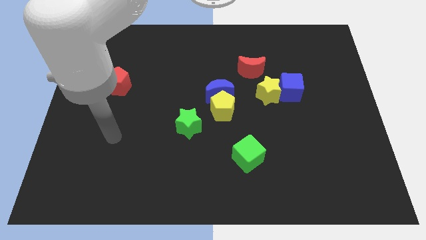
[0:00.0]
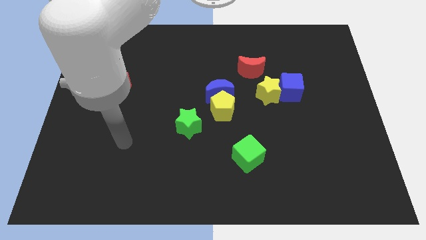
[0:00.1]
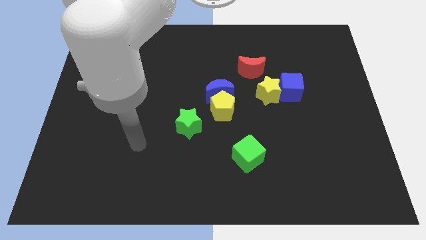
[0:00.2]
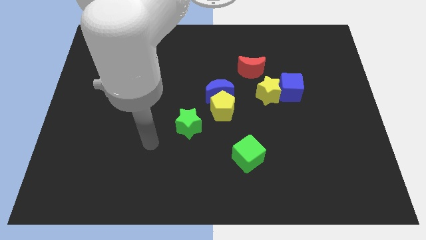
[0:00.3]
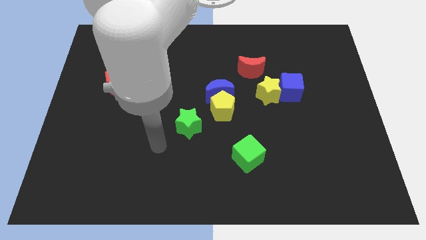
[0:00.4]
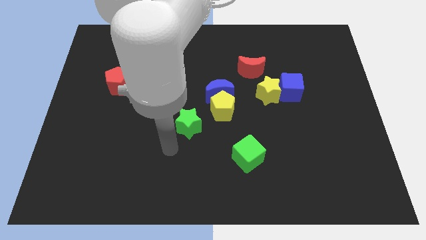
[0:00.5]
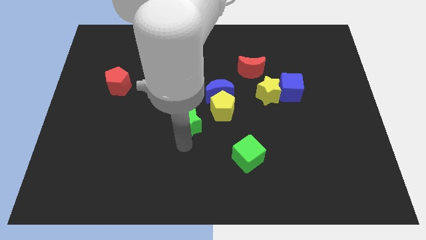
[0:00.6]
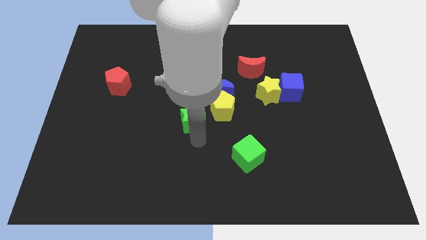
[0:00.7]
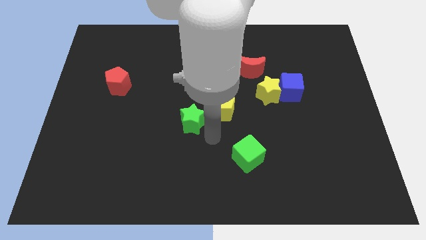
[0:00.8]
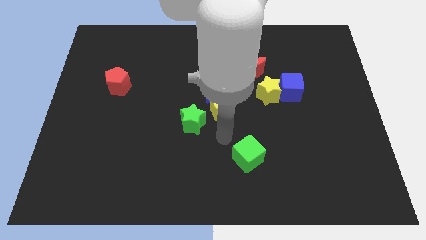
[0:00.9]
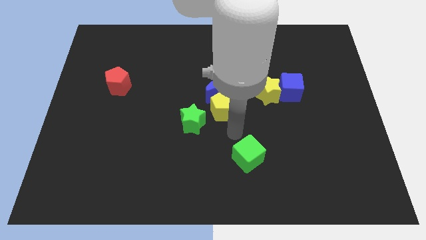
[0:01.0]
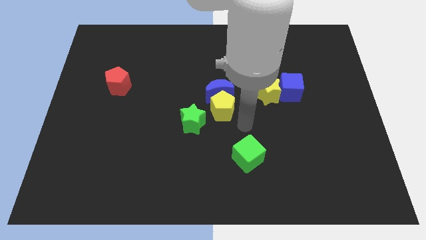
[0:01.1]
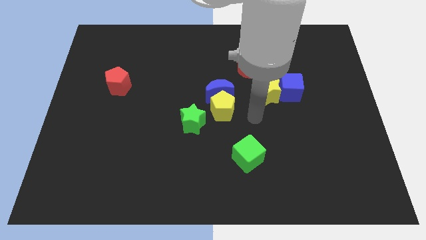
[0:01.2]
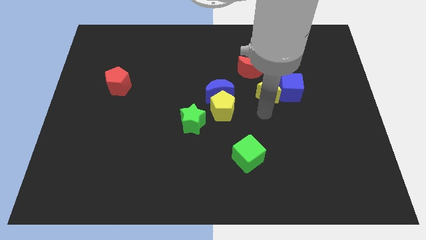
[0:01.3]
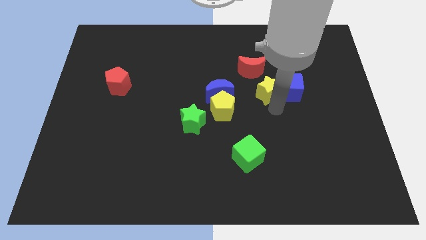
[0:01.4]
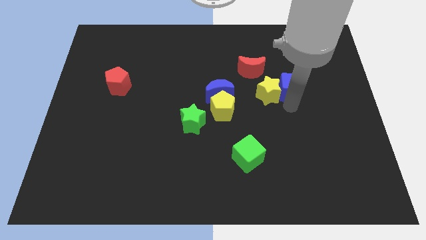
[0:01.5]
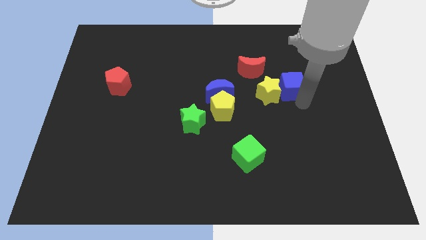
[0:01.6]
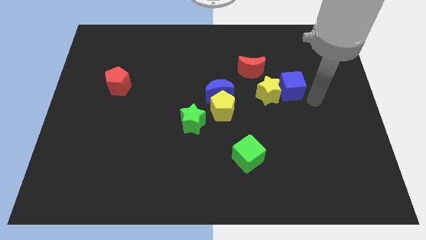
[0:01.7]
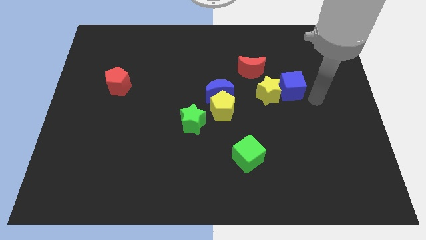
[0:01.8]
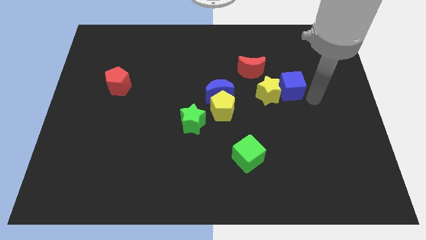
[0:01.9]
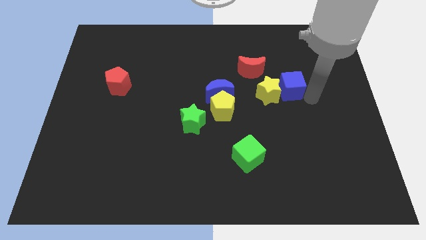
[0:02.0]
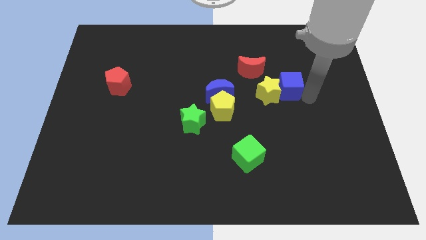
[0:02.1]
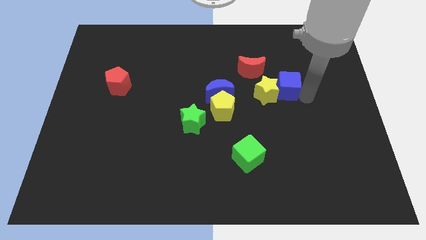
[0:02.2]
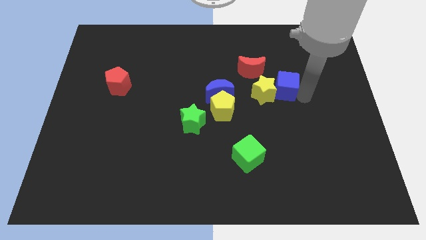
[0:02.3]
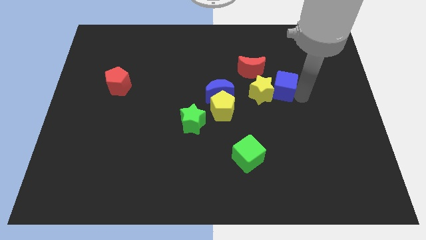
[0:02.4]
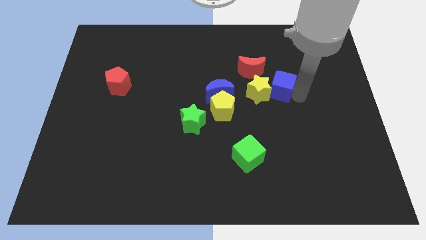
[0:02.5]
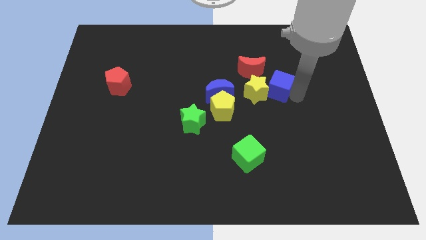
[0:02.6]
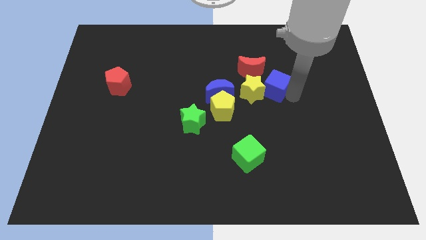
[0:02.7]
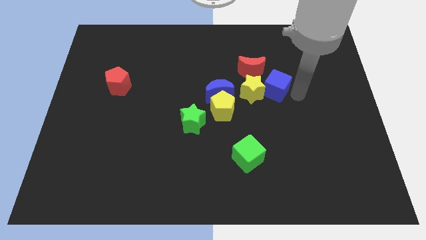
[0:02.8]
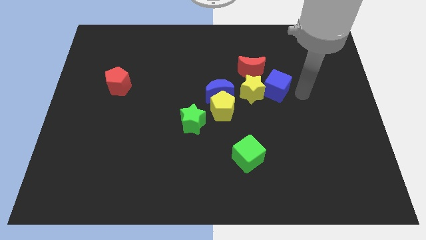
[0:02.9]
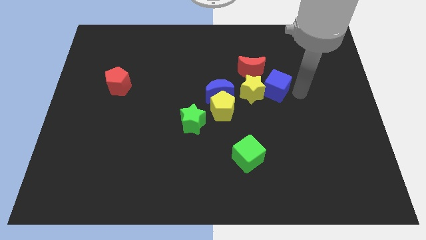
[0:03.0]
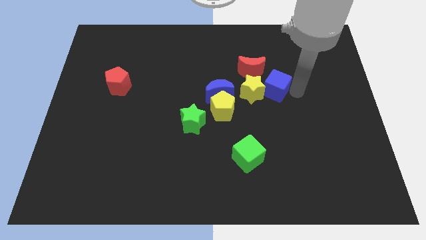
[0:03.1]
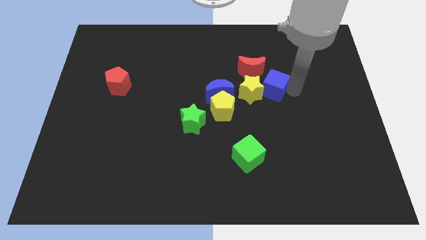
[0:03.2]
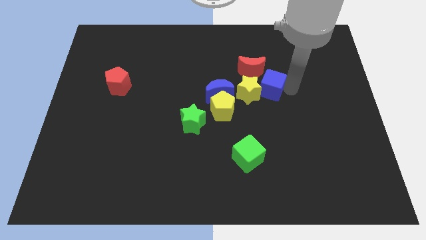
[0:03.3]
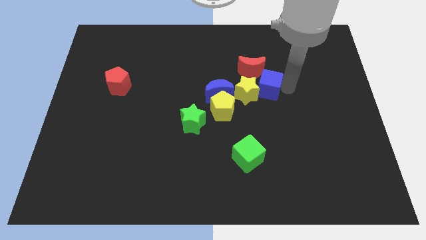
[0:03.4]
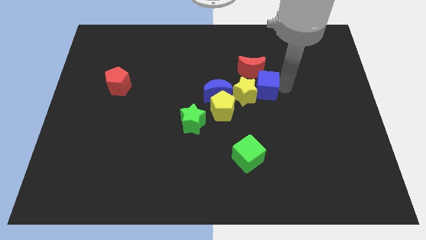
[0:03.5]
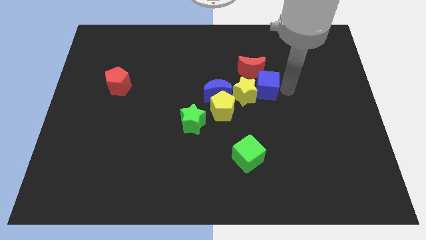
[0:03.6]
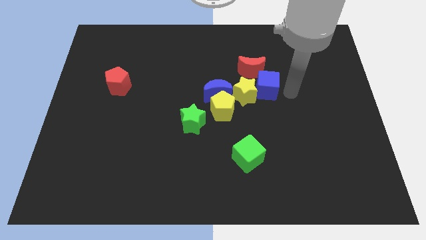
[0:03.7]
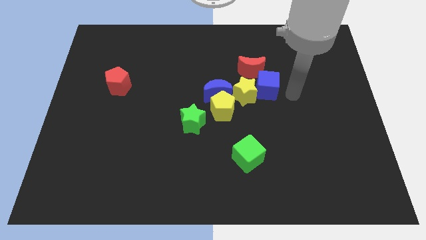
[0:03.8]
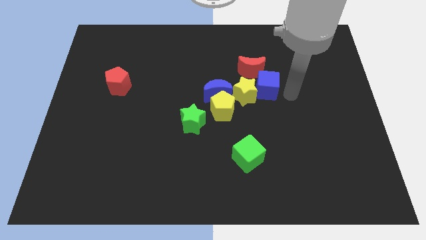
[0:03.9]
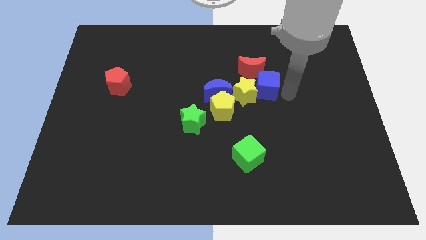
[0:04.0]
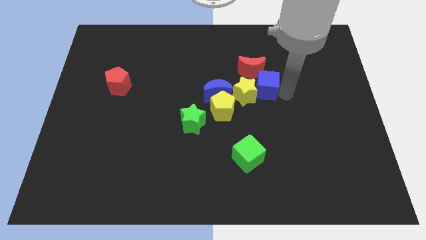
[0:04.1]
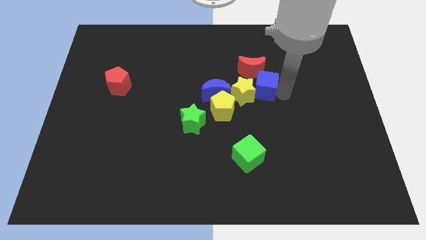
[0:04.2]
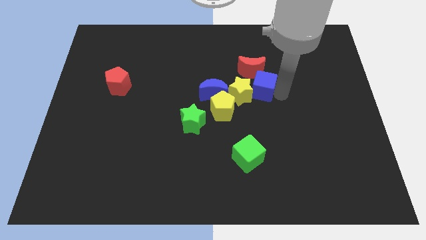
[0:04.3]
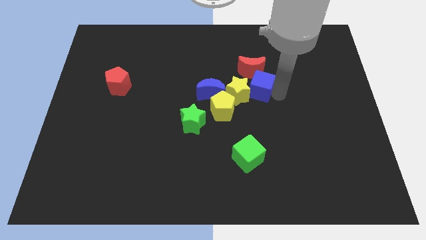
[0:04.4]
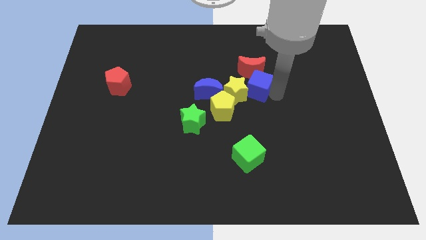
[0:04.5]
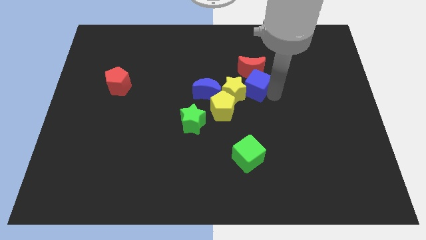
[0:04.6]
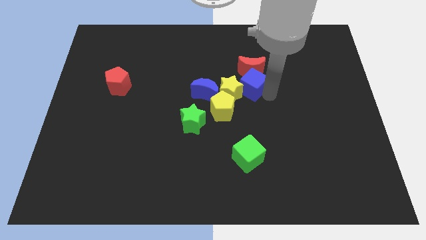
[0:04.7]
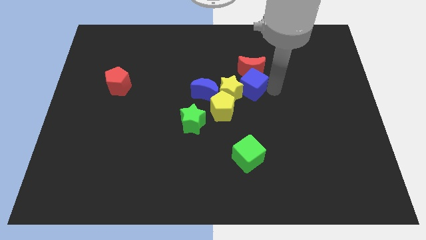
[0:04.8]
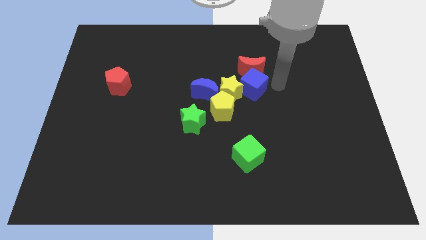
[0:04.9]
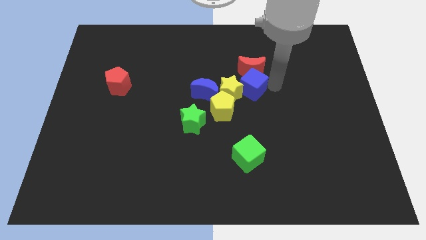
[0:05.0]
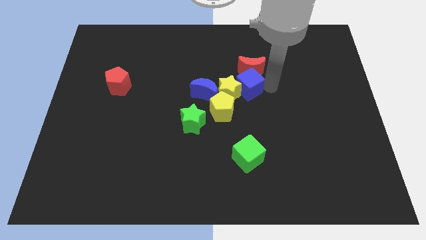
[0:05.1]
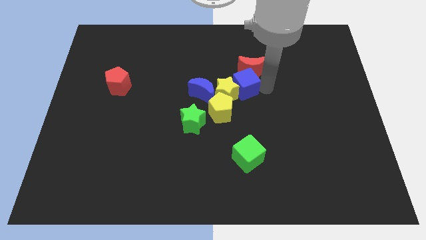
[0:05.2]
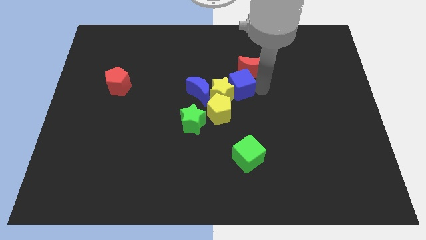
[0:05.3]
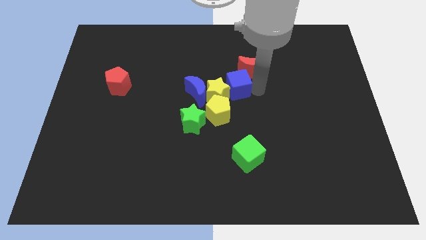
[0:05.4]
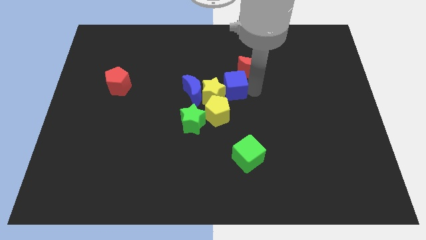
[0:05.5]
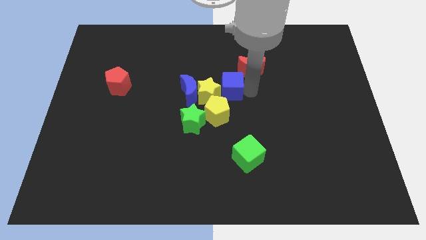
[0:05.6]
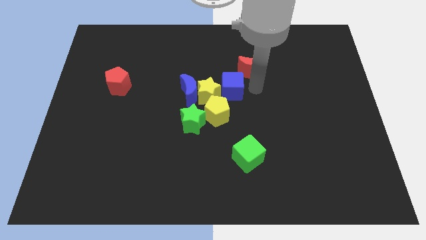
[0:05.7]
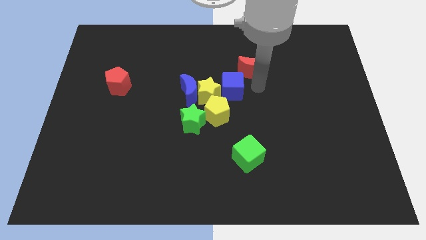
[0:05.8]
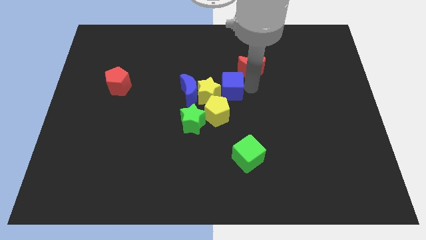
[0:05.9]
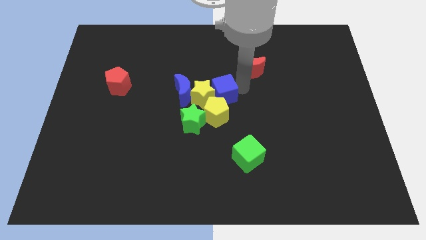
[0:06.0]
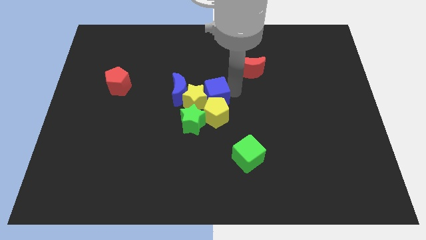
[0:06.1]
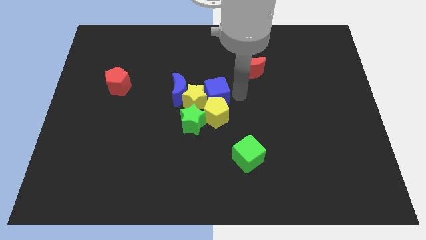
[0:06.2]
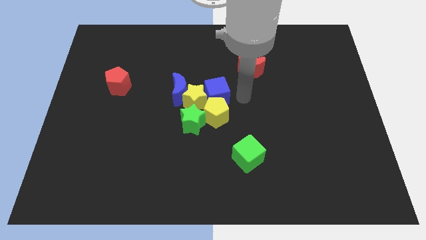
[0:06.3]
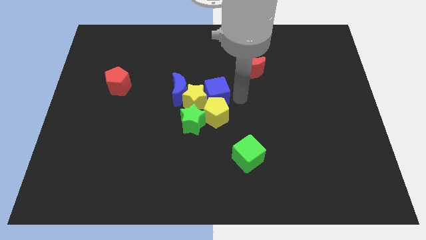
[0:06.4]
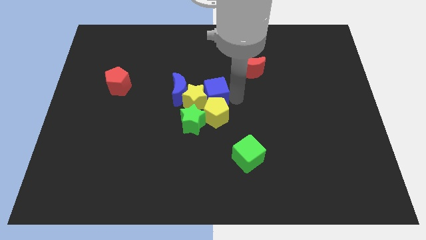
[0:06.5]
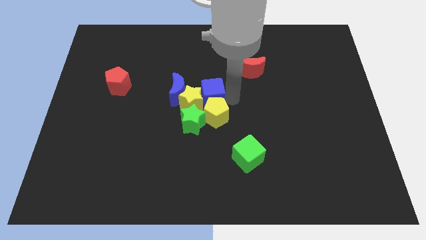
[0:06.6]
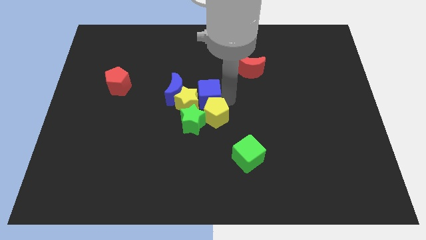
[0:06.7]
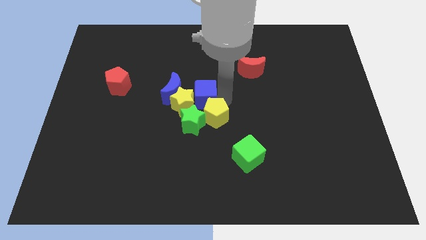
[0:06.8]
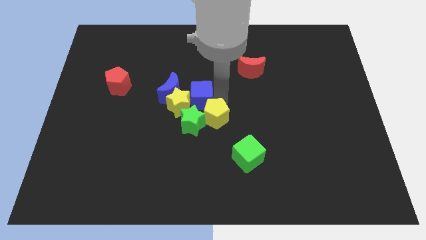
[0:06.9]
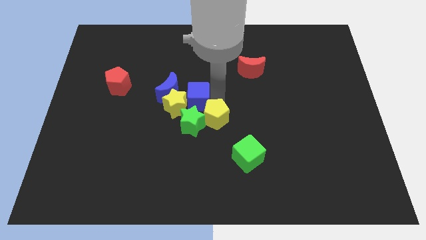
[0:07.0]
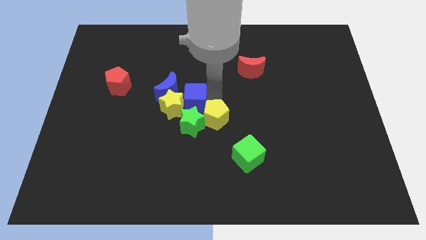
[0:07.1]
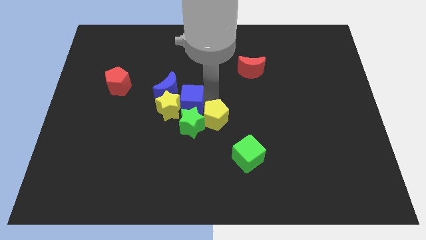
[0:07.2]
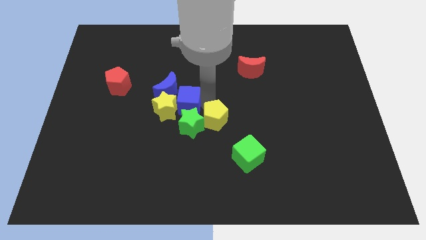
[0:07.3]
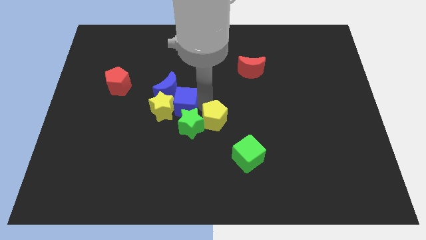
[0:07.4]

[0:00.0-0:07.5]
move the blue cube next to the blue moon

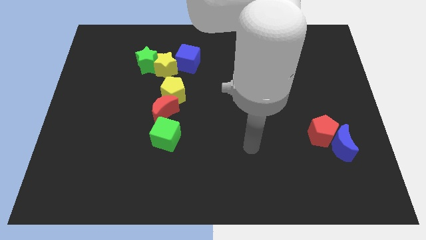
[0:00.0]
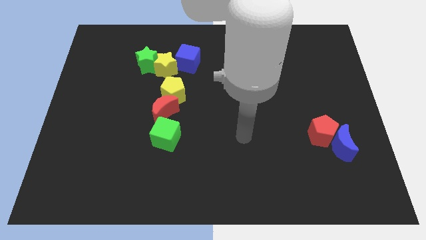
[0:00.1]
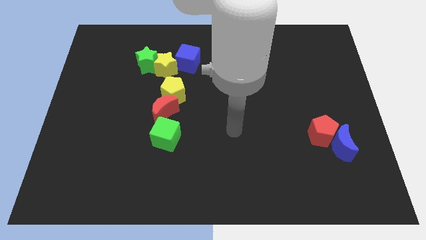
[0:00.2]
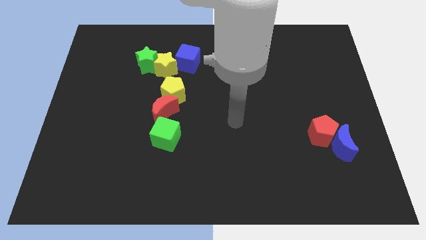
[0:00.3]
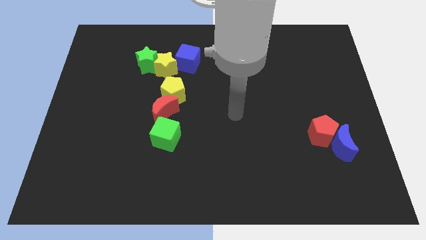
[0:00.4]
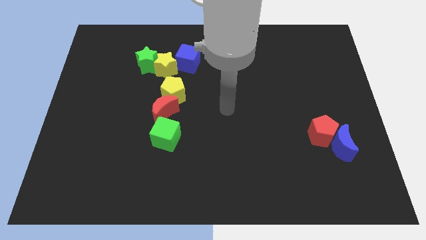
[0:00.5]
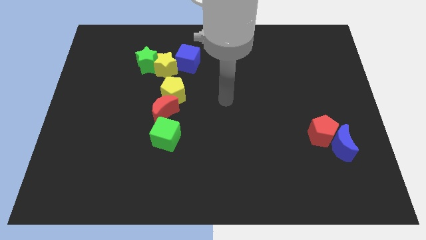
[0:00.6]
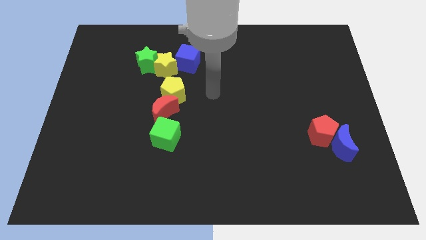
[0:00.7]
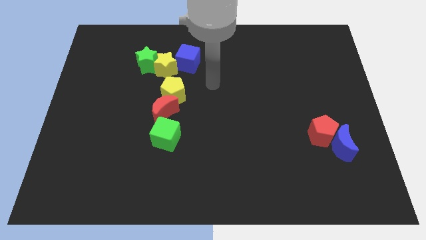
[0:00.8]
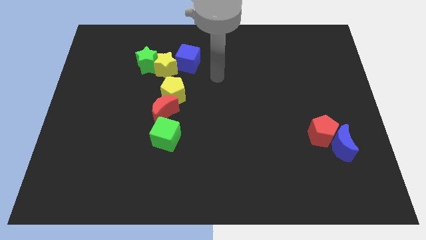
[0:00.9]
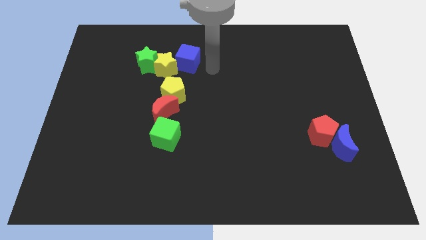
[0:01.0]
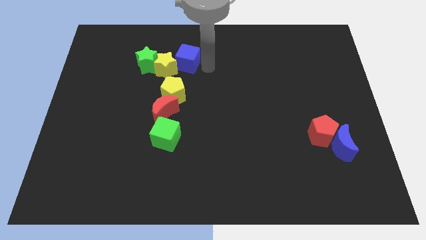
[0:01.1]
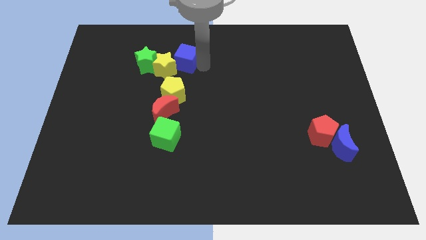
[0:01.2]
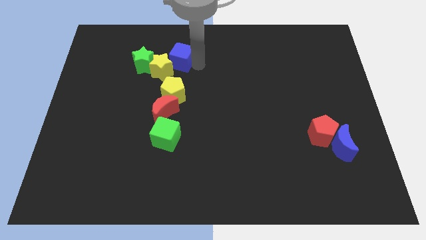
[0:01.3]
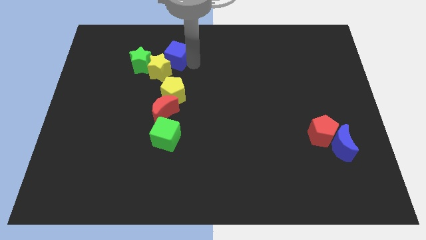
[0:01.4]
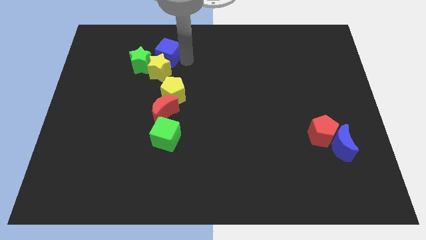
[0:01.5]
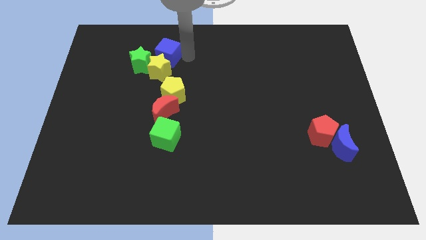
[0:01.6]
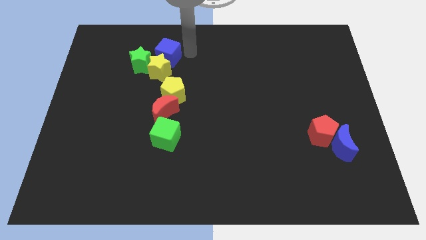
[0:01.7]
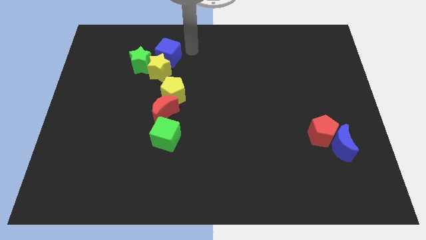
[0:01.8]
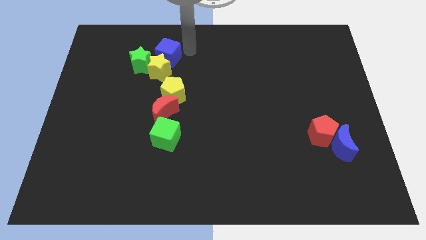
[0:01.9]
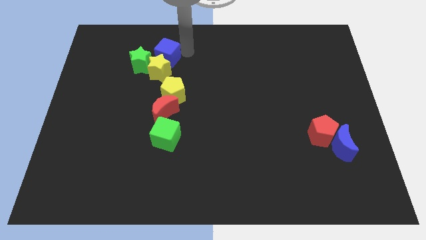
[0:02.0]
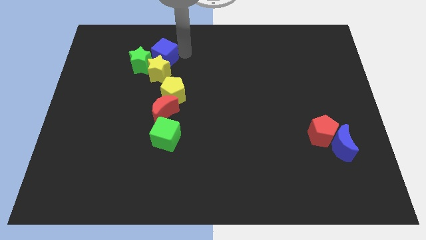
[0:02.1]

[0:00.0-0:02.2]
push the blue cube to the green star
